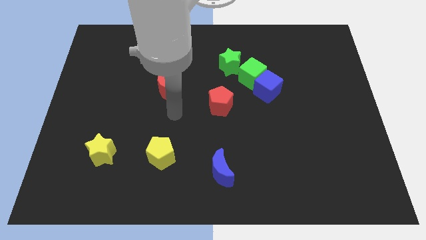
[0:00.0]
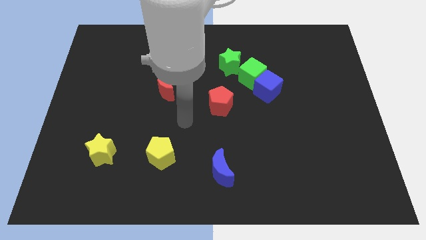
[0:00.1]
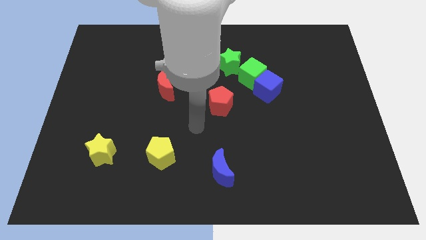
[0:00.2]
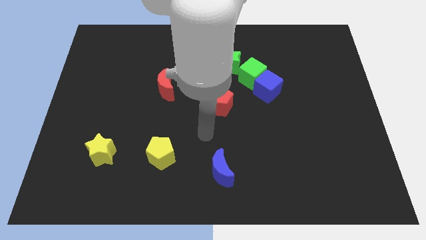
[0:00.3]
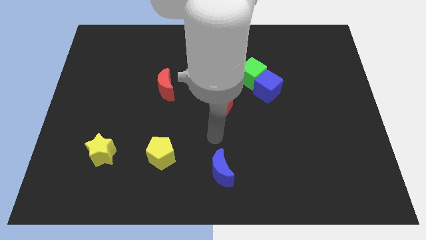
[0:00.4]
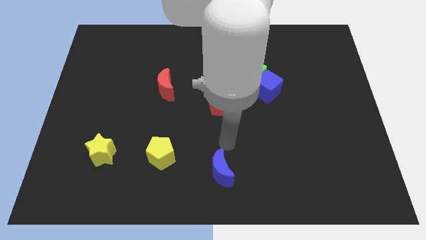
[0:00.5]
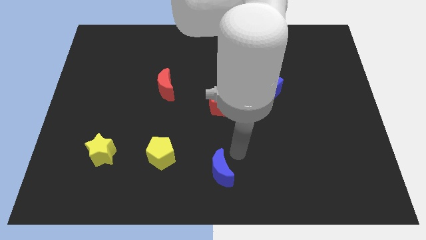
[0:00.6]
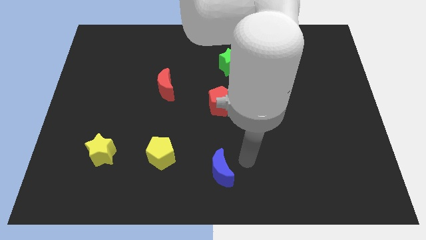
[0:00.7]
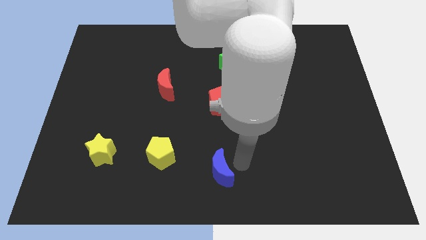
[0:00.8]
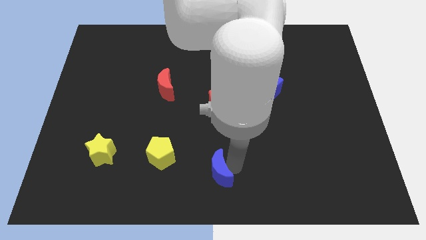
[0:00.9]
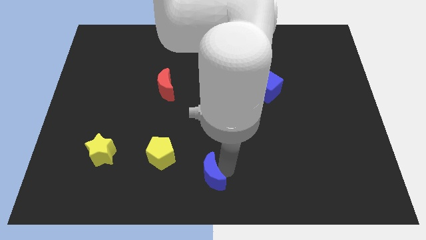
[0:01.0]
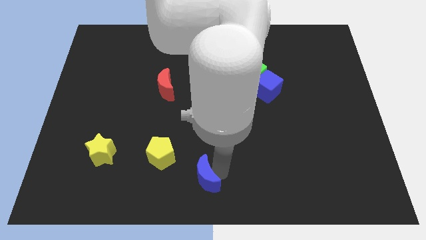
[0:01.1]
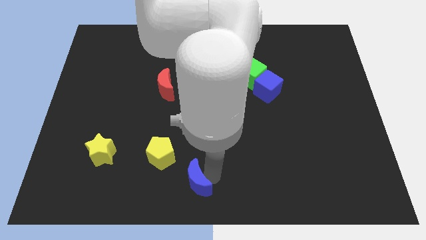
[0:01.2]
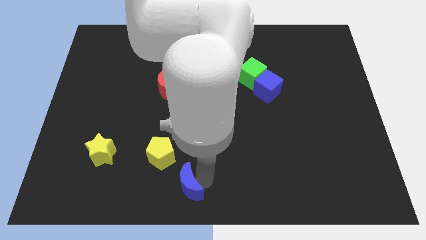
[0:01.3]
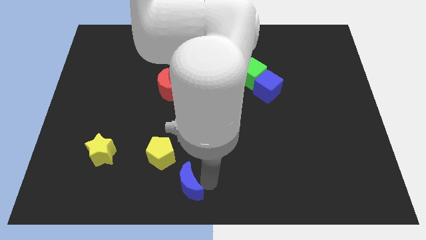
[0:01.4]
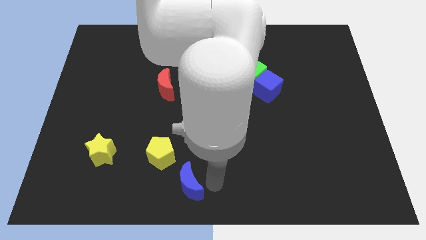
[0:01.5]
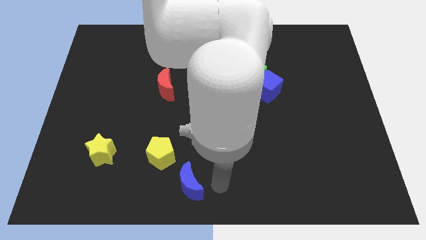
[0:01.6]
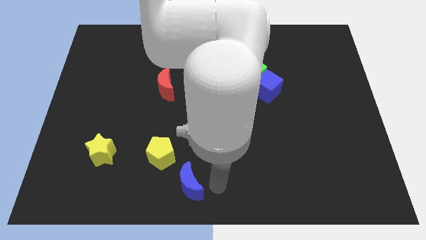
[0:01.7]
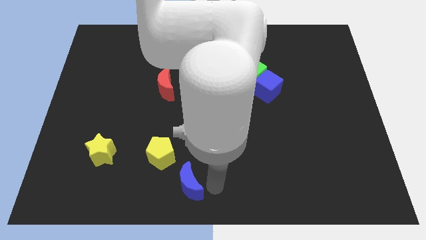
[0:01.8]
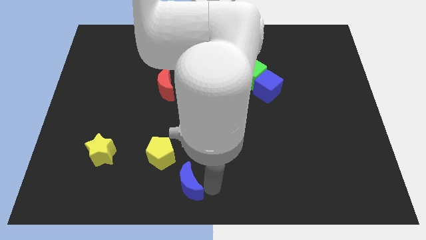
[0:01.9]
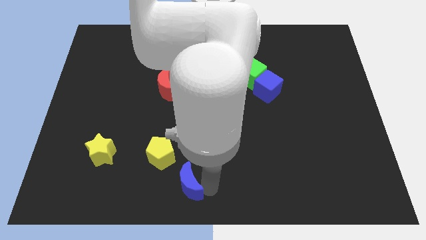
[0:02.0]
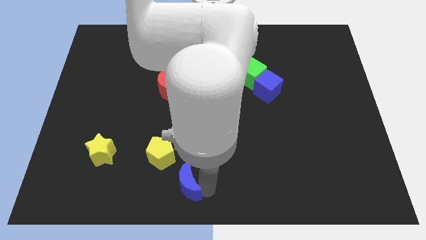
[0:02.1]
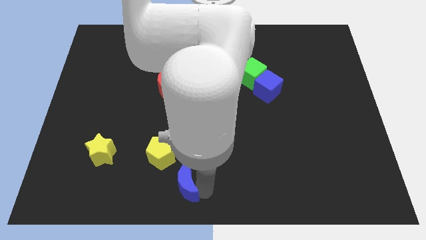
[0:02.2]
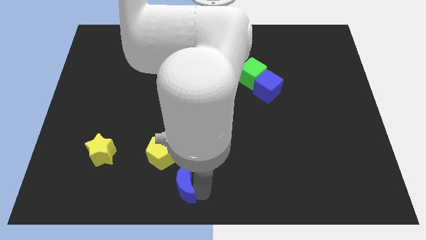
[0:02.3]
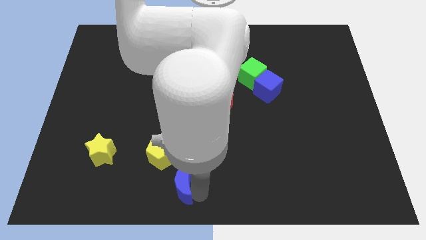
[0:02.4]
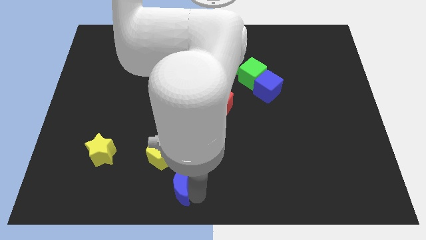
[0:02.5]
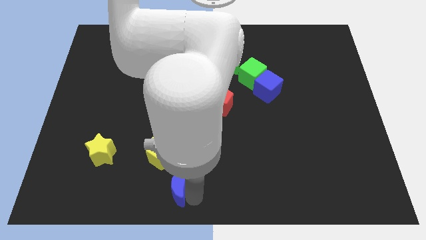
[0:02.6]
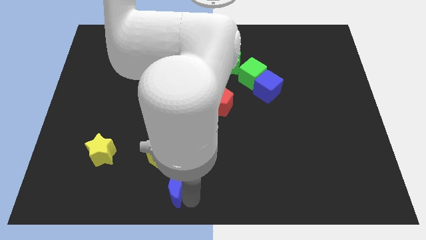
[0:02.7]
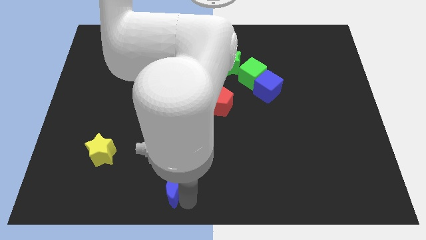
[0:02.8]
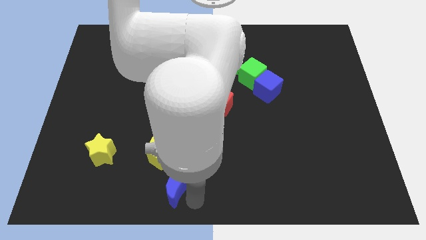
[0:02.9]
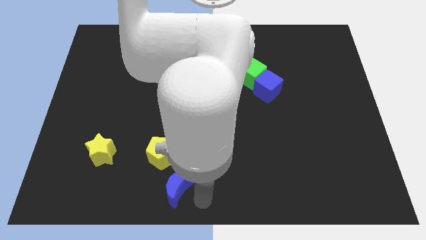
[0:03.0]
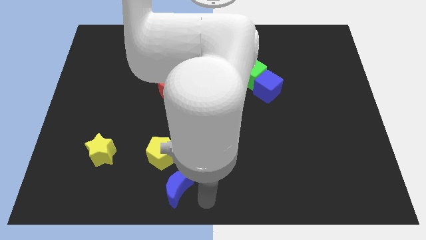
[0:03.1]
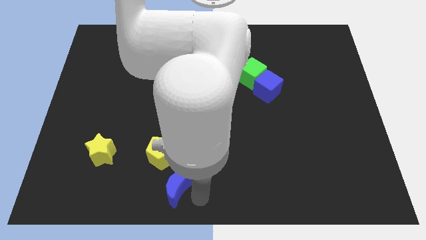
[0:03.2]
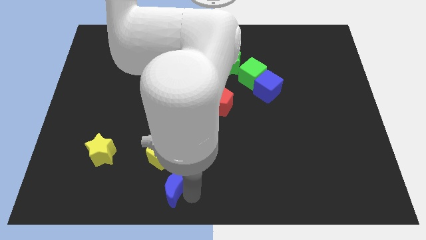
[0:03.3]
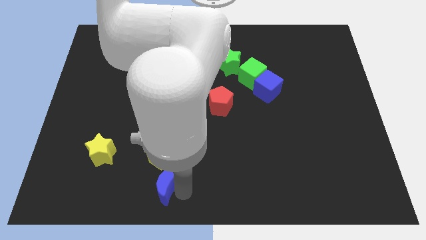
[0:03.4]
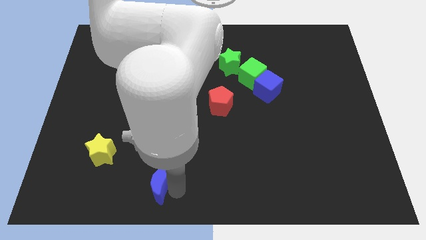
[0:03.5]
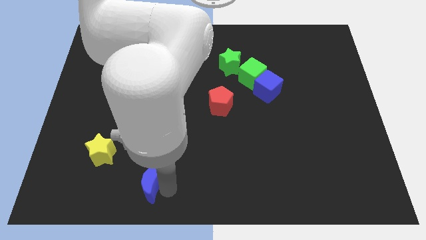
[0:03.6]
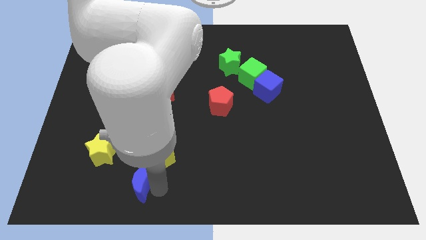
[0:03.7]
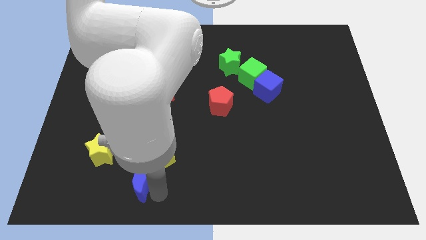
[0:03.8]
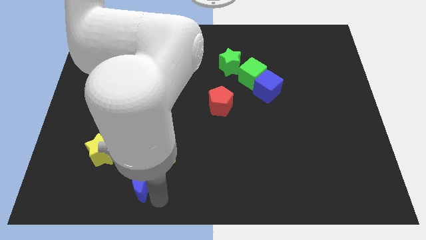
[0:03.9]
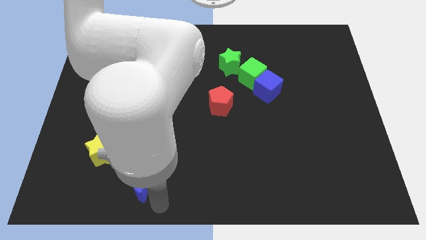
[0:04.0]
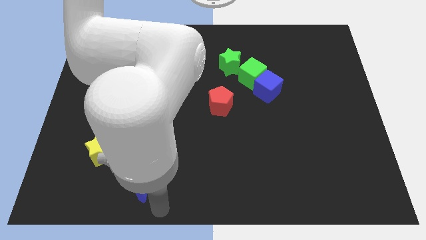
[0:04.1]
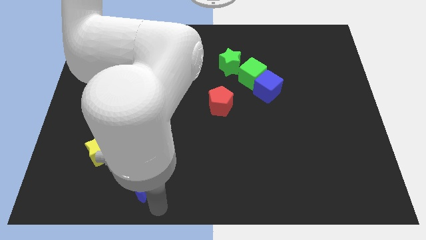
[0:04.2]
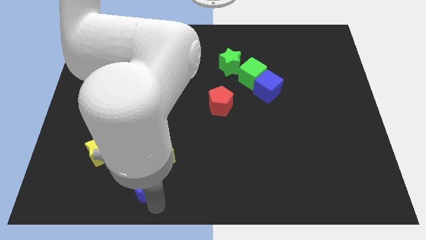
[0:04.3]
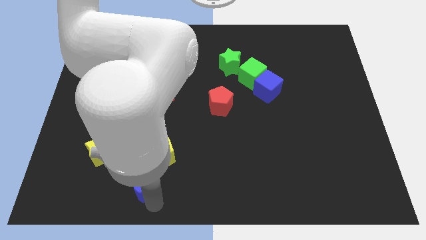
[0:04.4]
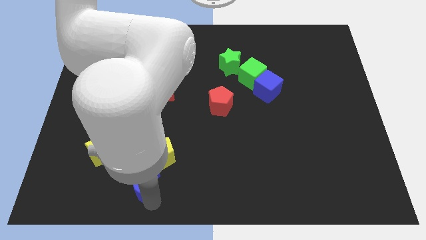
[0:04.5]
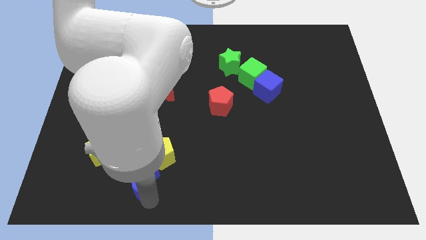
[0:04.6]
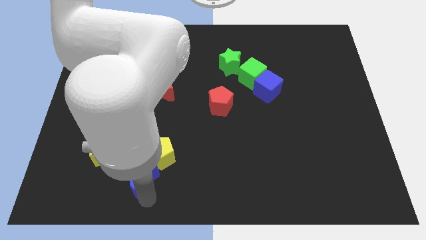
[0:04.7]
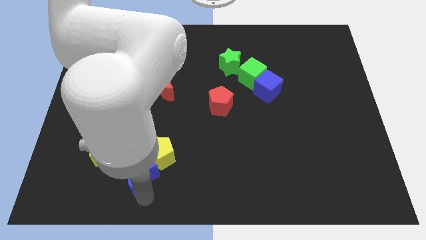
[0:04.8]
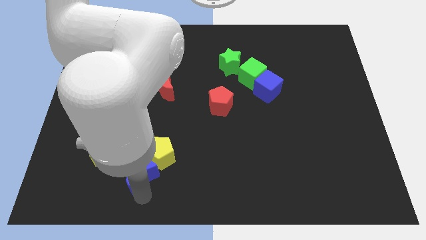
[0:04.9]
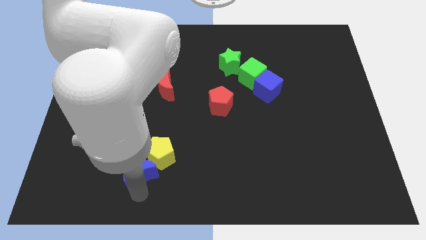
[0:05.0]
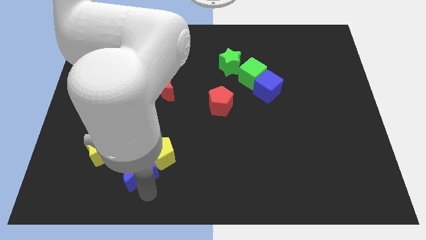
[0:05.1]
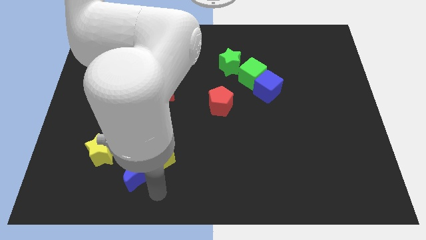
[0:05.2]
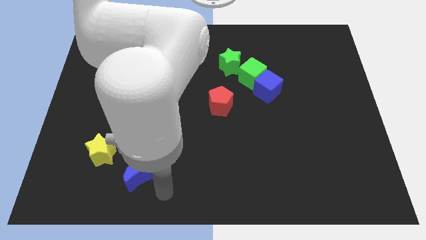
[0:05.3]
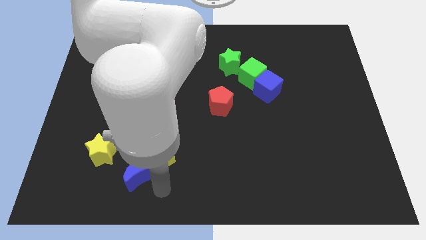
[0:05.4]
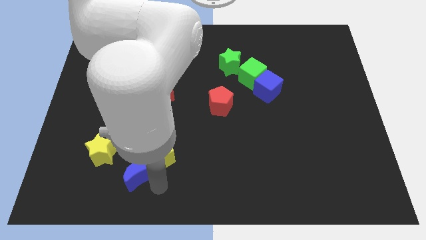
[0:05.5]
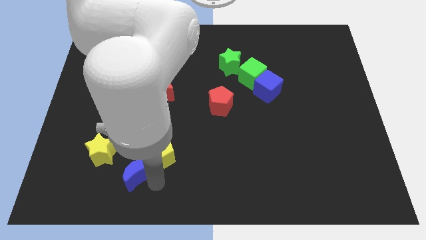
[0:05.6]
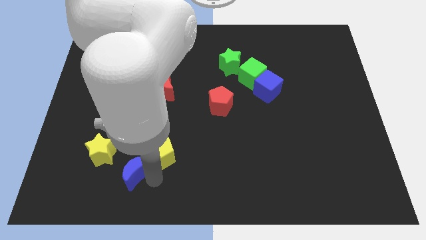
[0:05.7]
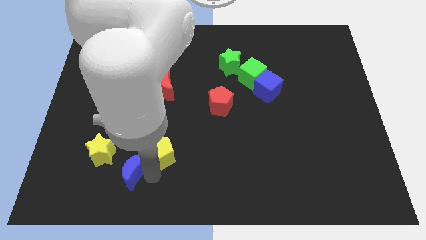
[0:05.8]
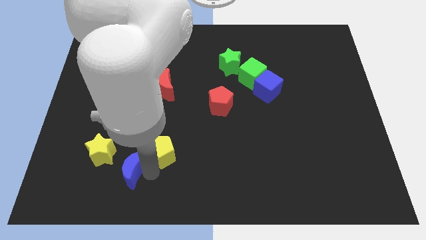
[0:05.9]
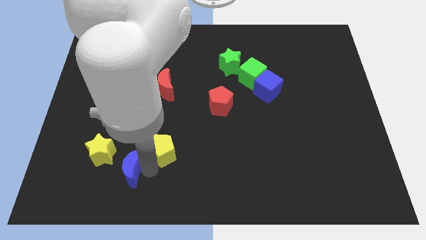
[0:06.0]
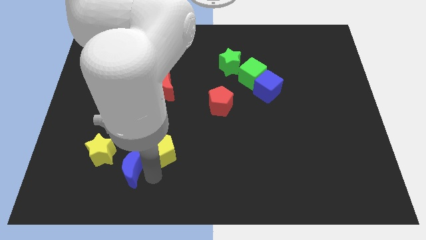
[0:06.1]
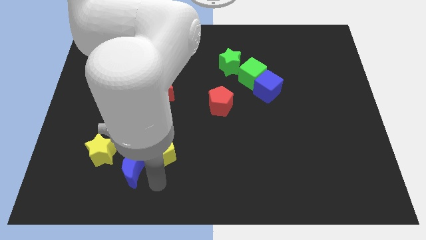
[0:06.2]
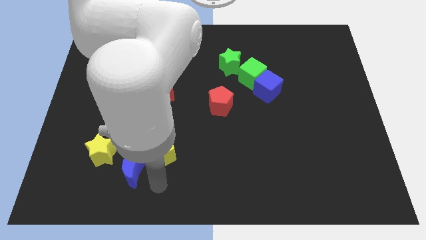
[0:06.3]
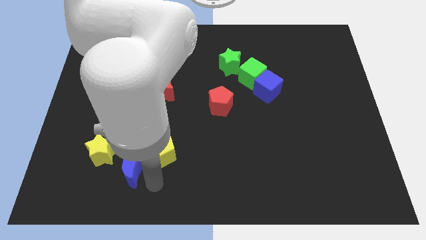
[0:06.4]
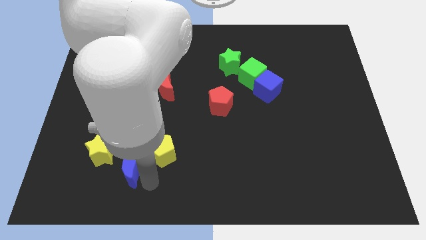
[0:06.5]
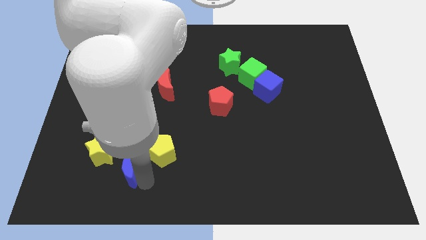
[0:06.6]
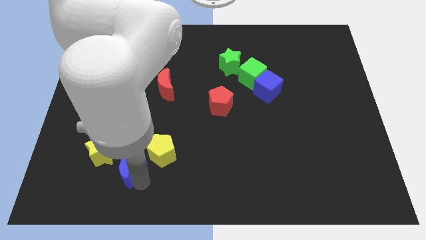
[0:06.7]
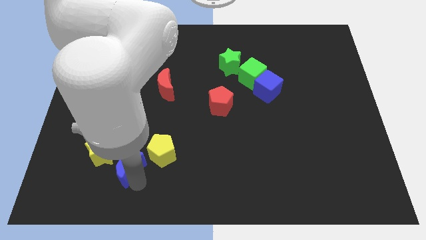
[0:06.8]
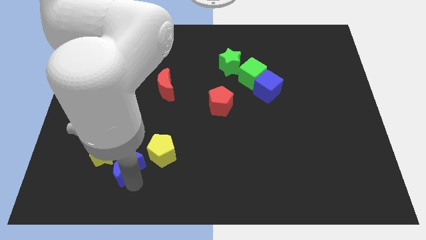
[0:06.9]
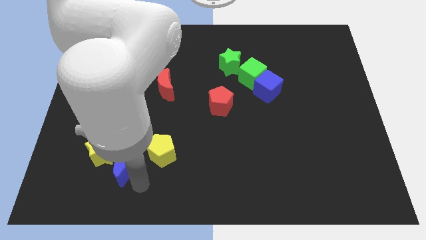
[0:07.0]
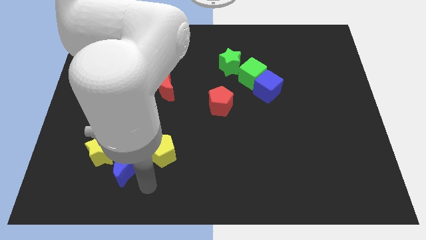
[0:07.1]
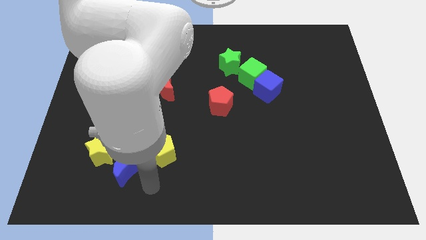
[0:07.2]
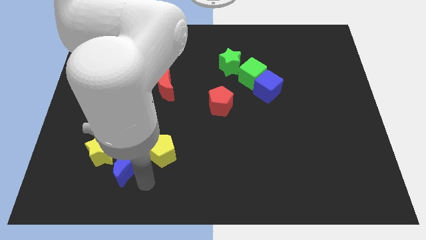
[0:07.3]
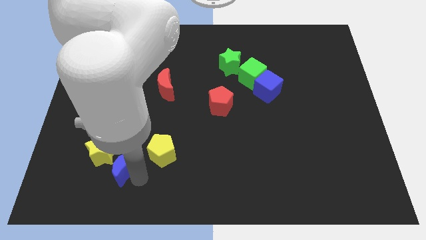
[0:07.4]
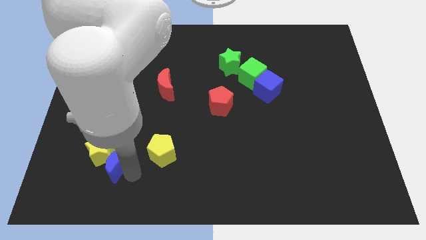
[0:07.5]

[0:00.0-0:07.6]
move the blue moon towards the yellow star
